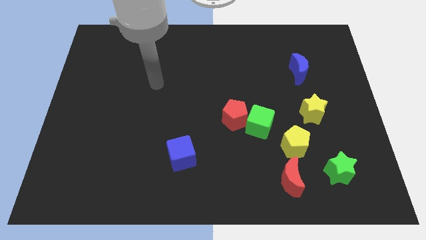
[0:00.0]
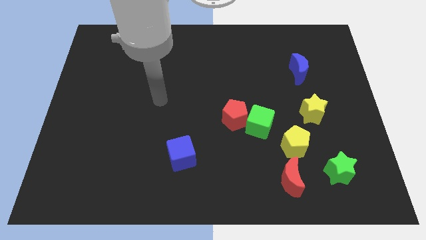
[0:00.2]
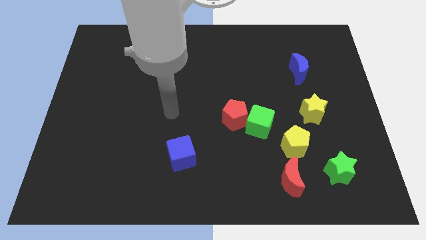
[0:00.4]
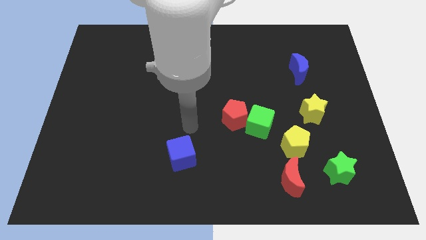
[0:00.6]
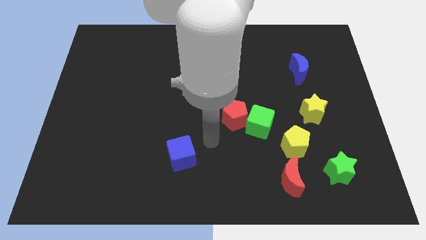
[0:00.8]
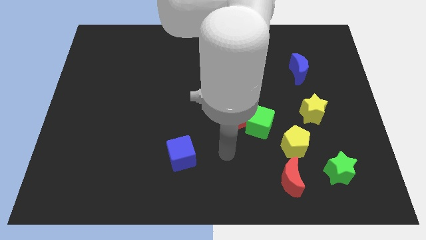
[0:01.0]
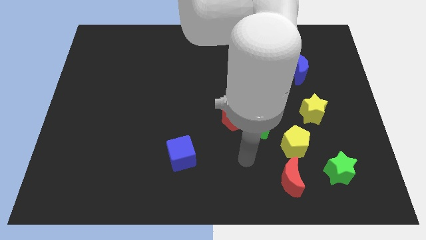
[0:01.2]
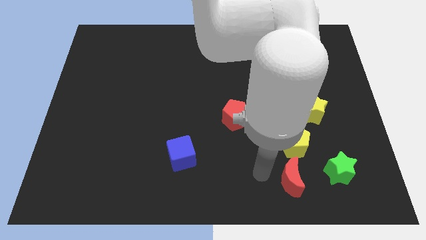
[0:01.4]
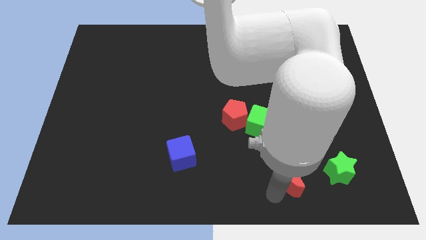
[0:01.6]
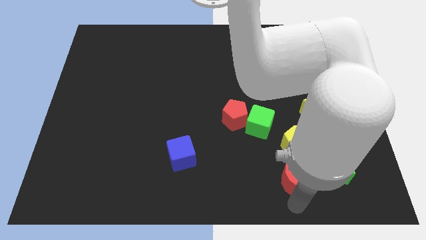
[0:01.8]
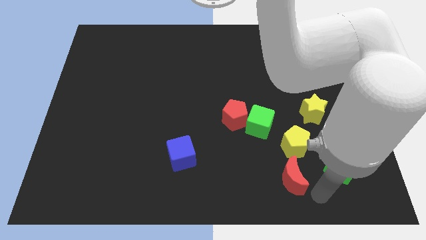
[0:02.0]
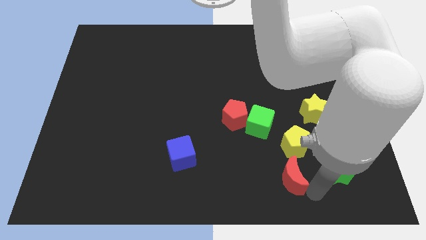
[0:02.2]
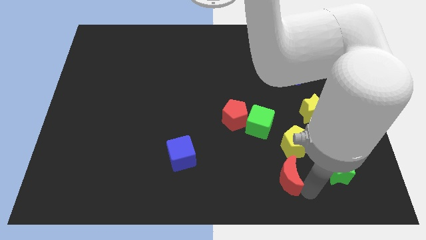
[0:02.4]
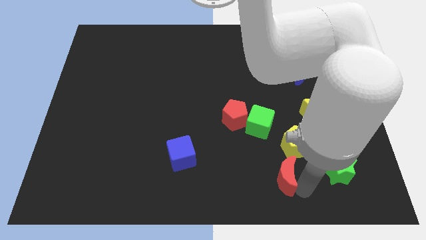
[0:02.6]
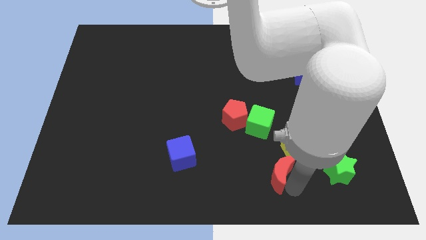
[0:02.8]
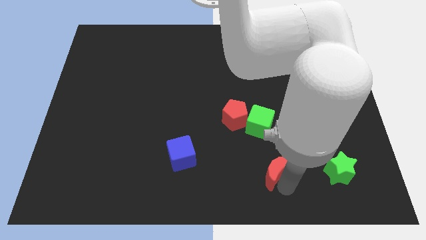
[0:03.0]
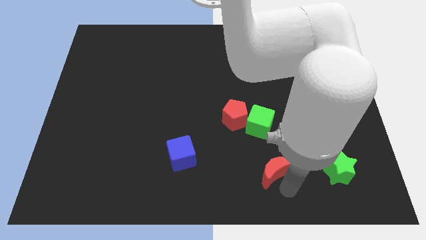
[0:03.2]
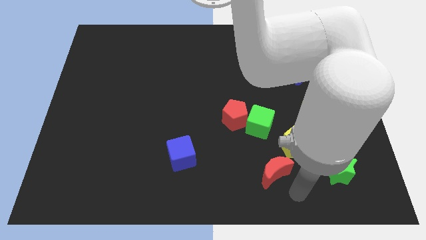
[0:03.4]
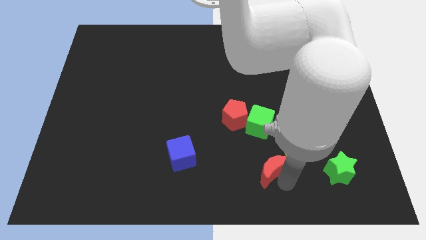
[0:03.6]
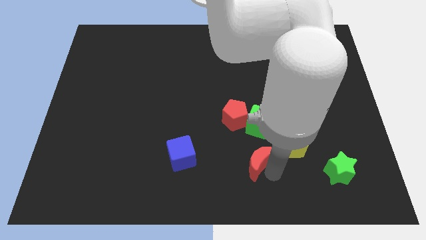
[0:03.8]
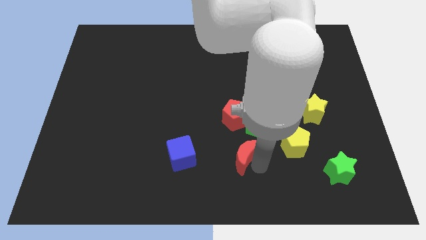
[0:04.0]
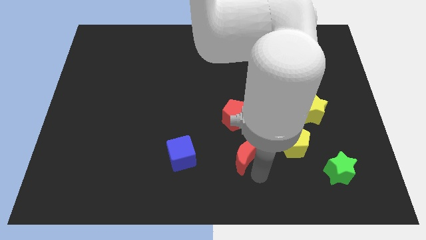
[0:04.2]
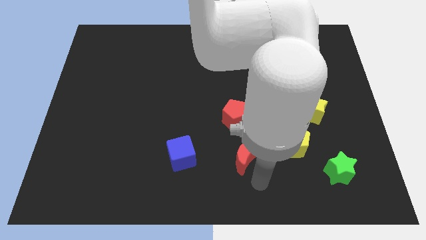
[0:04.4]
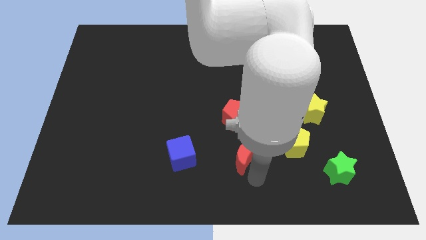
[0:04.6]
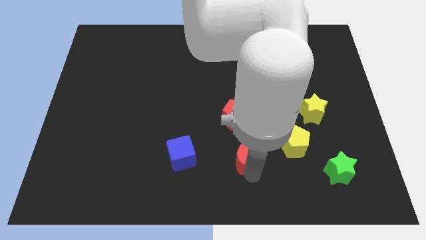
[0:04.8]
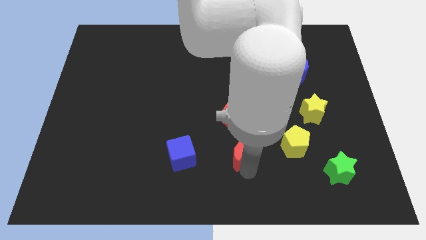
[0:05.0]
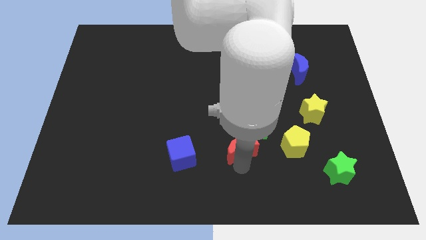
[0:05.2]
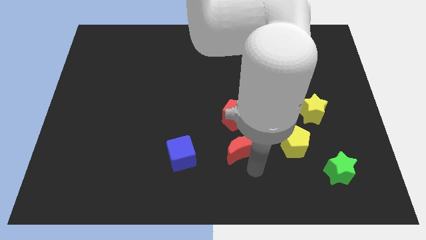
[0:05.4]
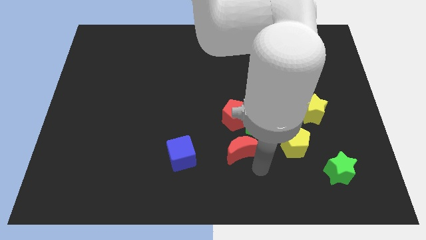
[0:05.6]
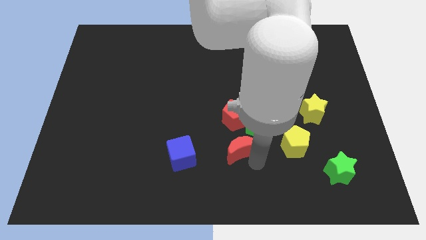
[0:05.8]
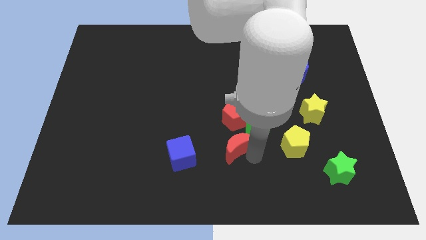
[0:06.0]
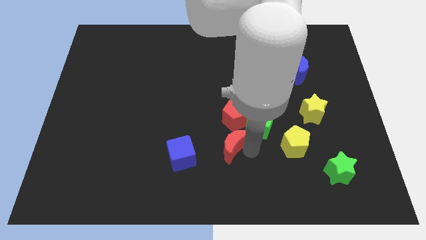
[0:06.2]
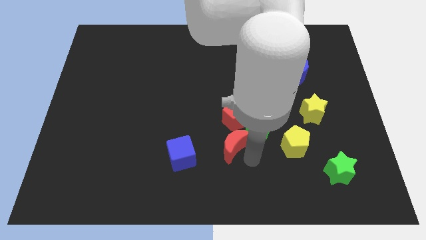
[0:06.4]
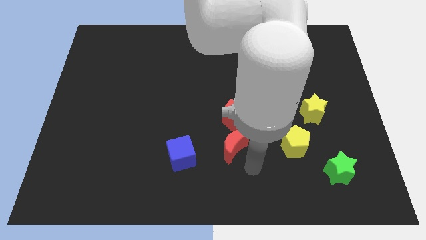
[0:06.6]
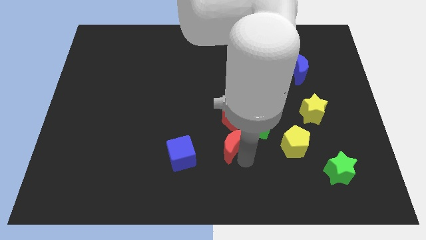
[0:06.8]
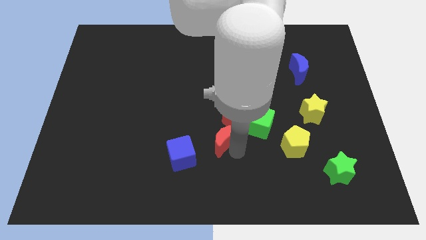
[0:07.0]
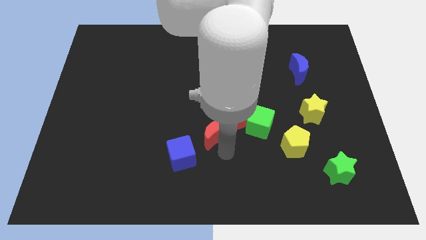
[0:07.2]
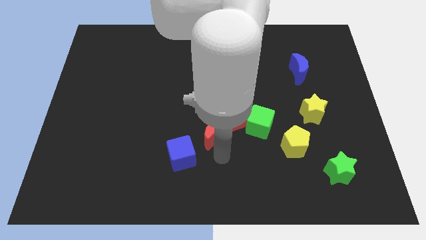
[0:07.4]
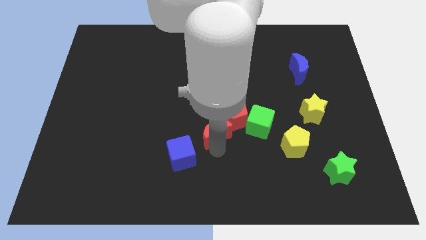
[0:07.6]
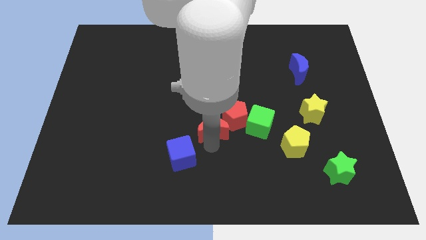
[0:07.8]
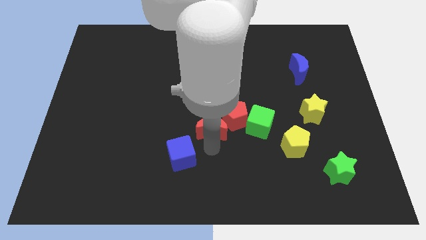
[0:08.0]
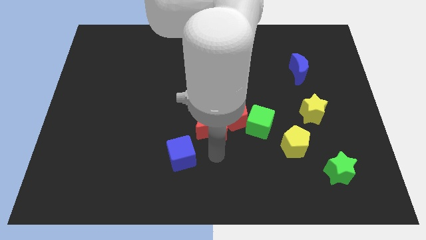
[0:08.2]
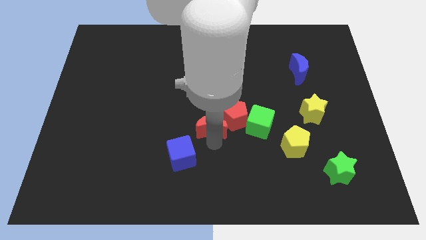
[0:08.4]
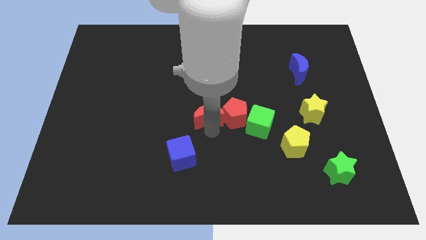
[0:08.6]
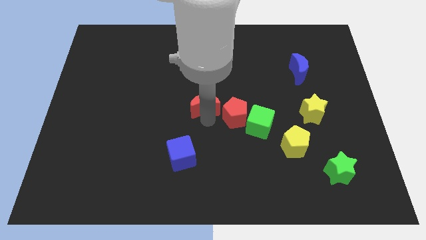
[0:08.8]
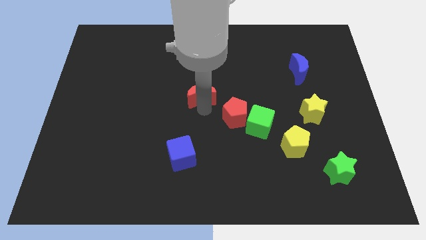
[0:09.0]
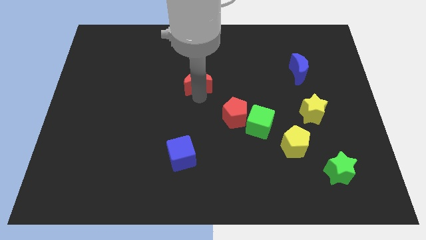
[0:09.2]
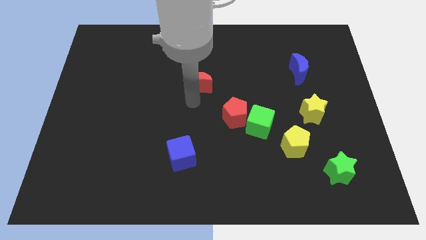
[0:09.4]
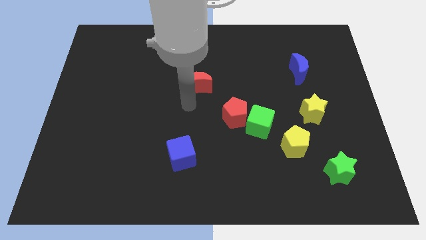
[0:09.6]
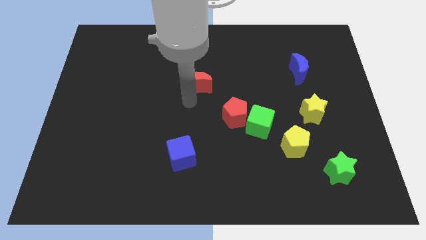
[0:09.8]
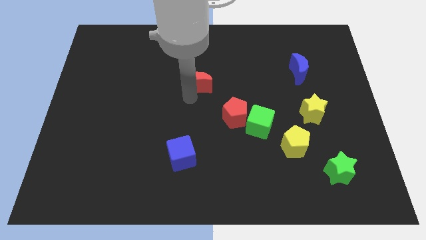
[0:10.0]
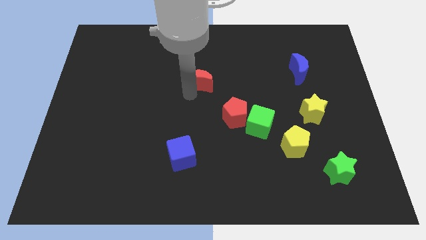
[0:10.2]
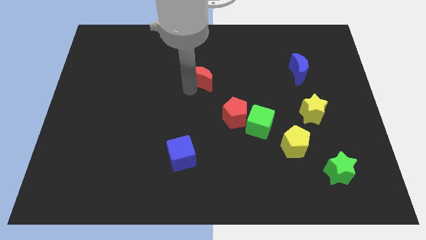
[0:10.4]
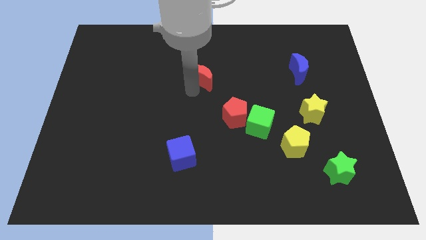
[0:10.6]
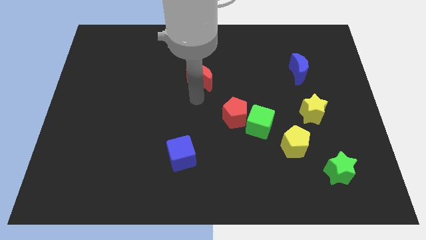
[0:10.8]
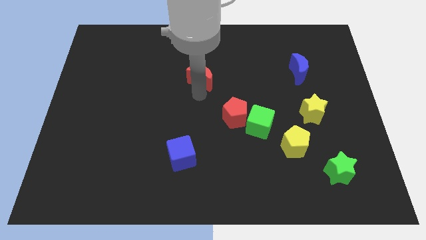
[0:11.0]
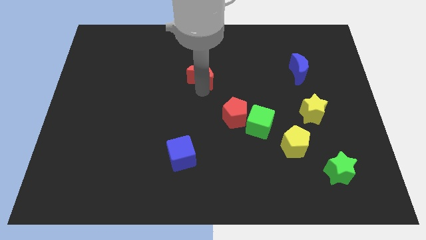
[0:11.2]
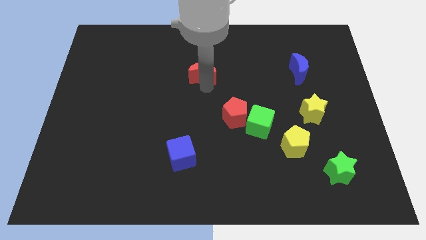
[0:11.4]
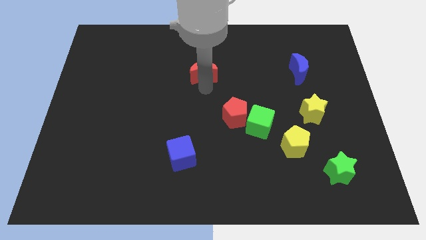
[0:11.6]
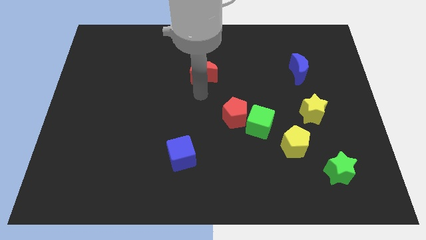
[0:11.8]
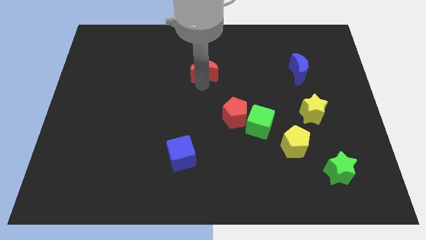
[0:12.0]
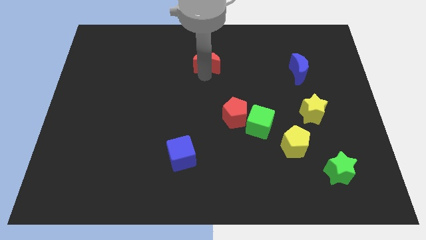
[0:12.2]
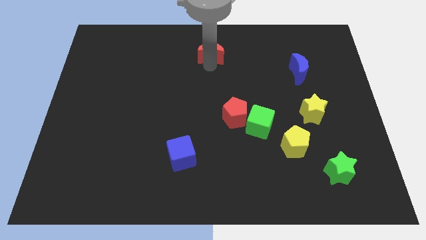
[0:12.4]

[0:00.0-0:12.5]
put the red moon to the towards your base
